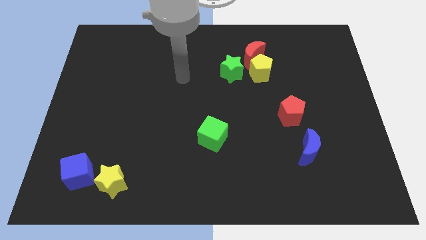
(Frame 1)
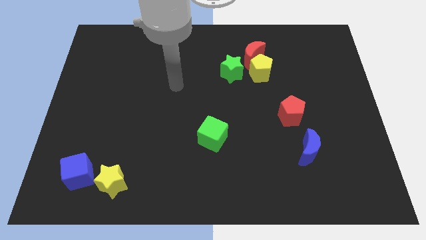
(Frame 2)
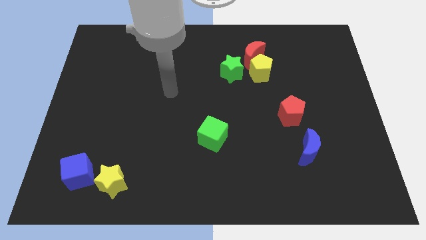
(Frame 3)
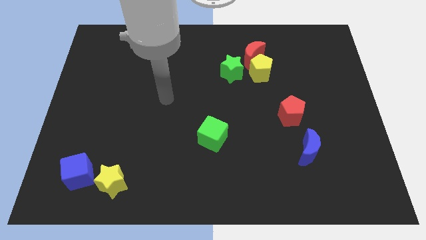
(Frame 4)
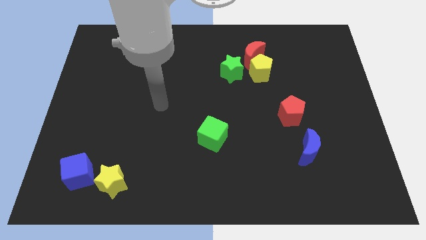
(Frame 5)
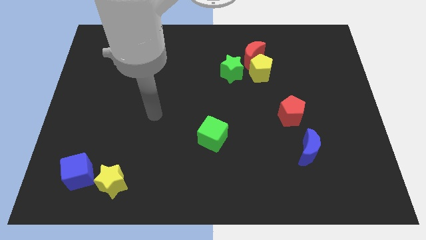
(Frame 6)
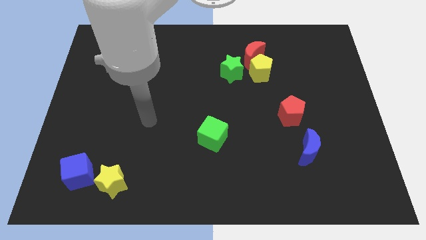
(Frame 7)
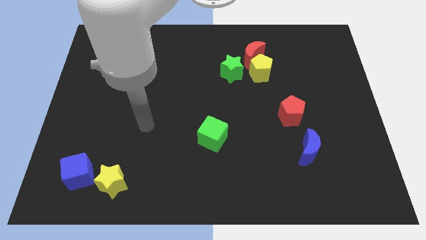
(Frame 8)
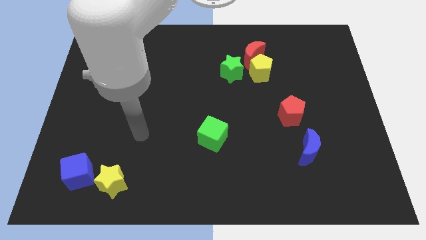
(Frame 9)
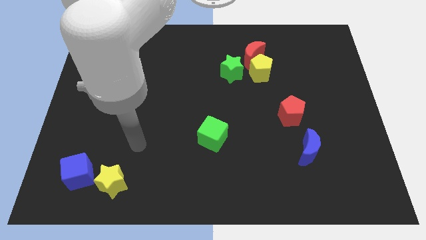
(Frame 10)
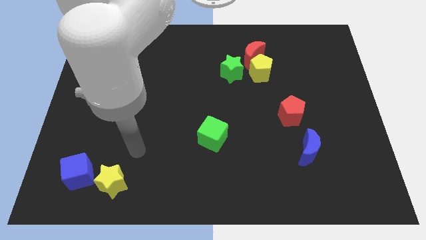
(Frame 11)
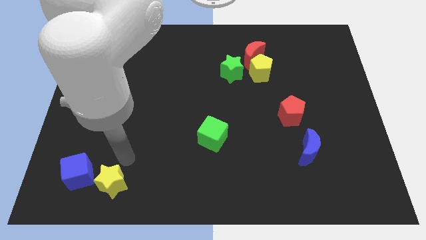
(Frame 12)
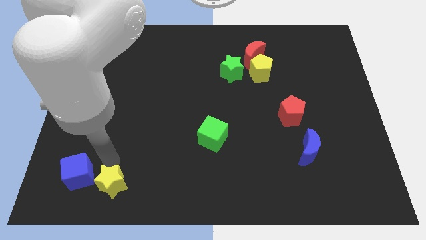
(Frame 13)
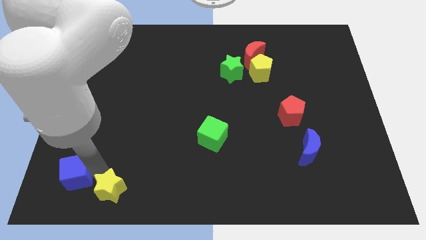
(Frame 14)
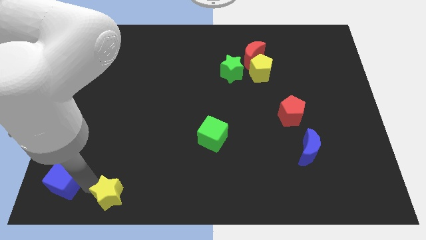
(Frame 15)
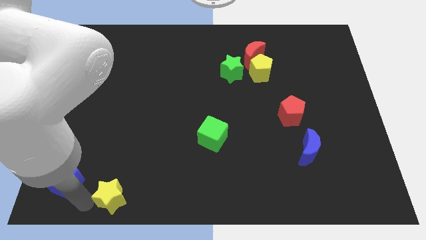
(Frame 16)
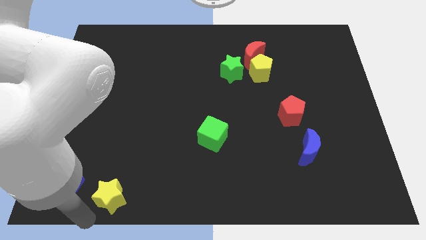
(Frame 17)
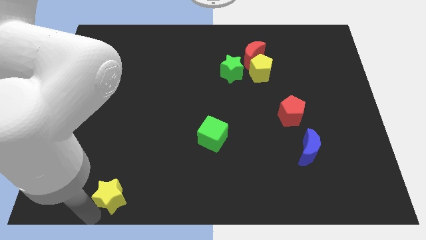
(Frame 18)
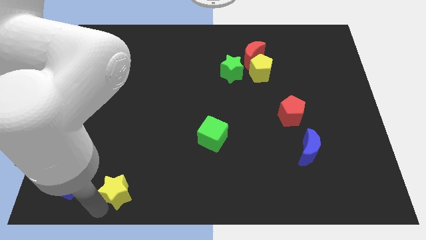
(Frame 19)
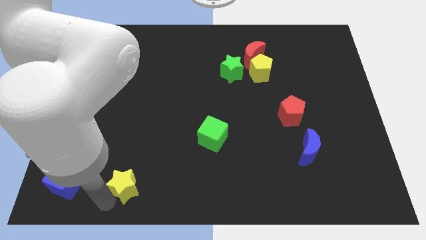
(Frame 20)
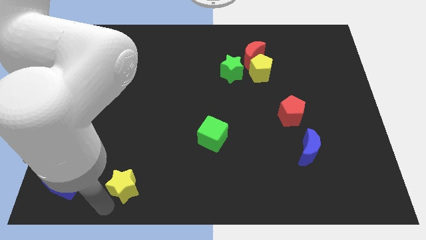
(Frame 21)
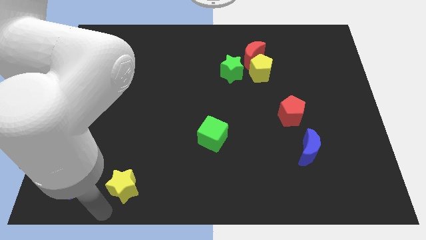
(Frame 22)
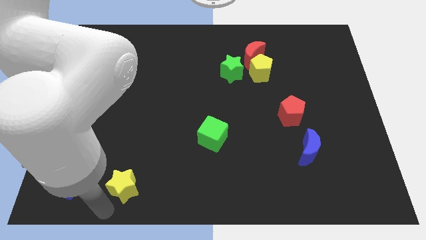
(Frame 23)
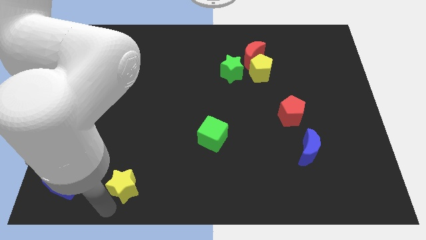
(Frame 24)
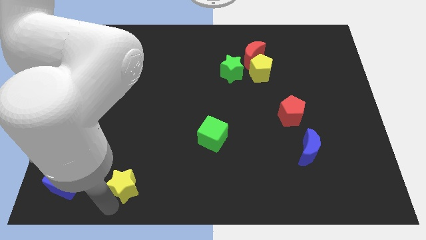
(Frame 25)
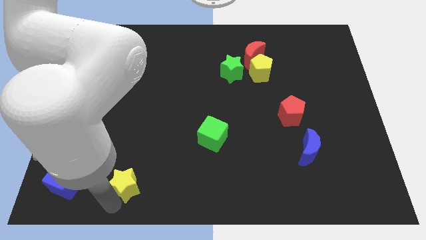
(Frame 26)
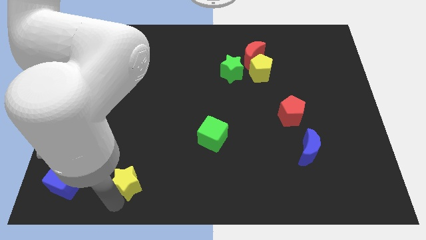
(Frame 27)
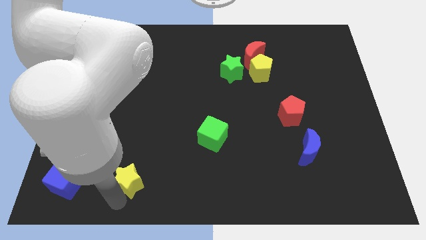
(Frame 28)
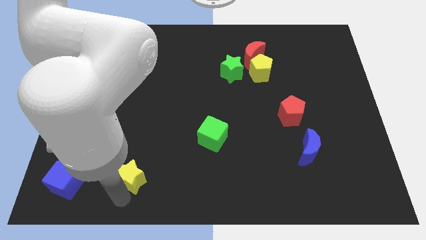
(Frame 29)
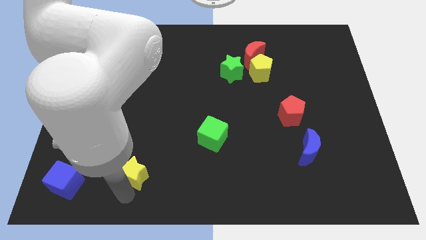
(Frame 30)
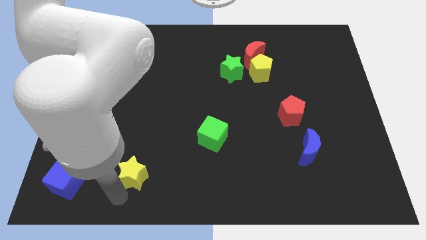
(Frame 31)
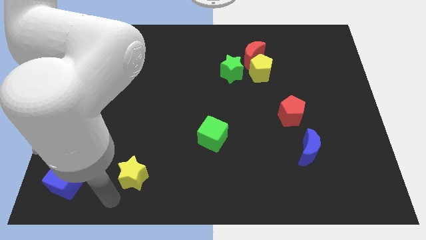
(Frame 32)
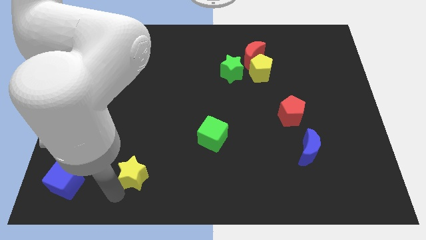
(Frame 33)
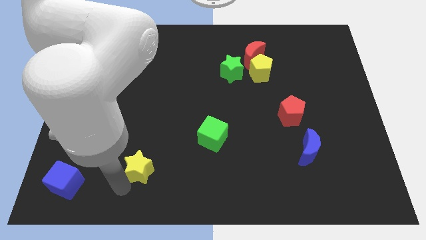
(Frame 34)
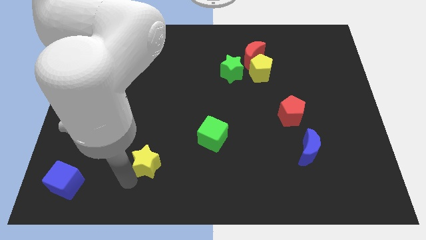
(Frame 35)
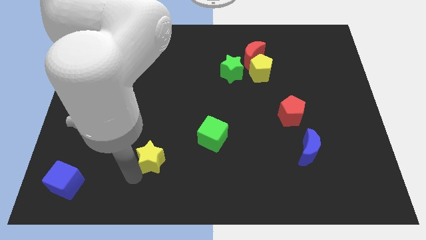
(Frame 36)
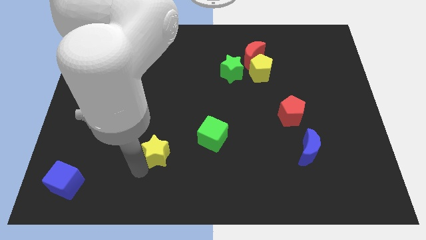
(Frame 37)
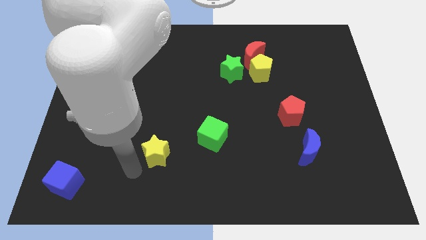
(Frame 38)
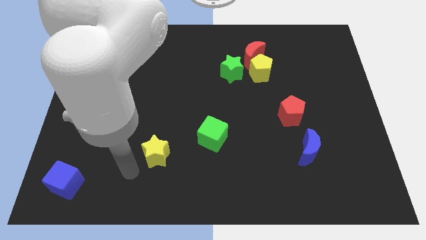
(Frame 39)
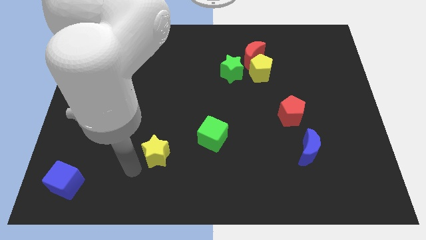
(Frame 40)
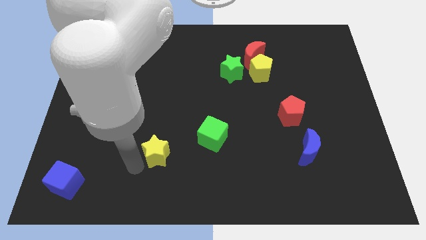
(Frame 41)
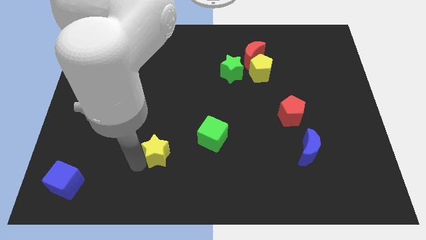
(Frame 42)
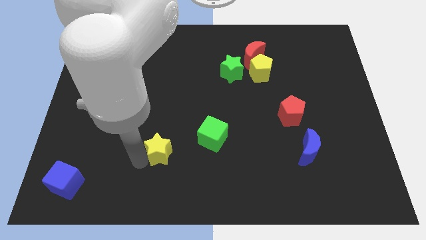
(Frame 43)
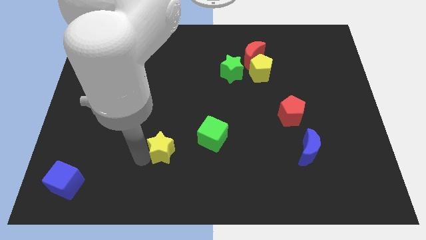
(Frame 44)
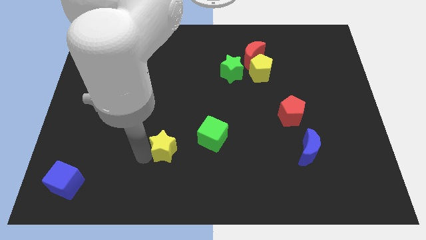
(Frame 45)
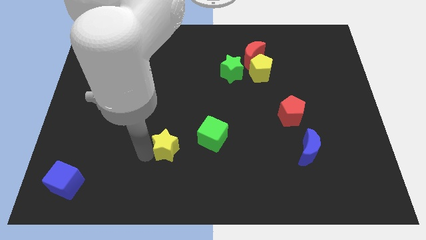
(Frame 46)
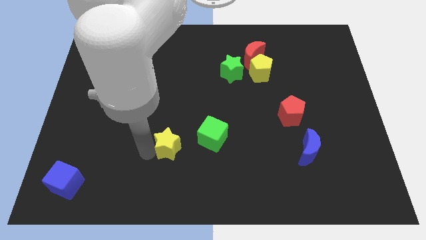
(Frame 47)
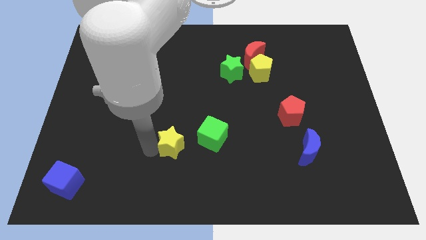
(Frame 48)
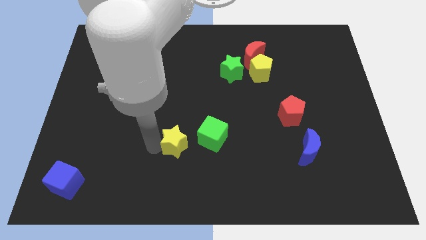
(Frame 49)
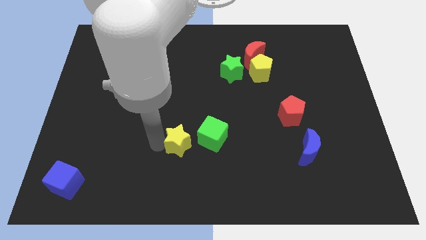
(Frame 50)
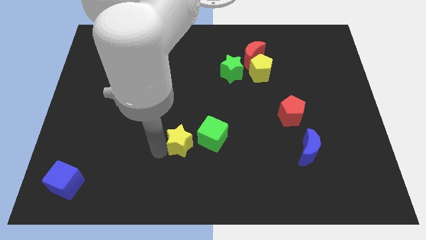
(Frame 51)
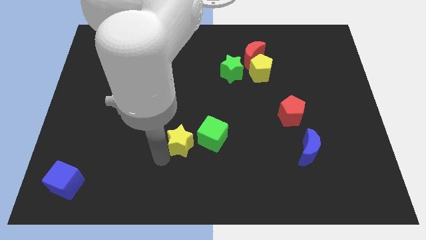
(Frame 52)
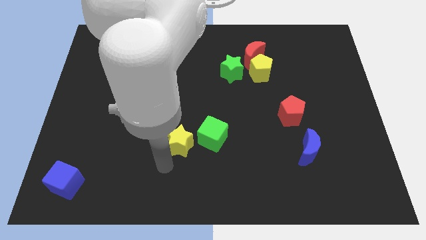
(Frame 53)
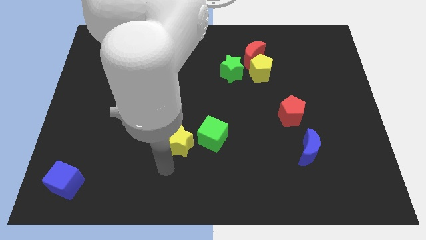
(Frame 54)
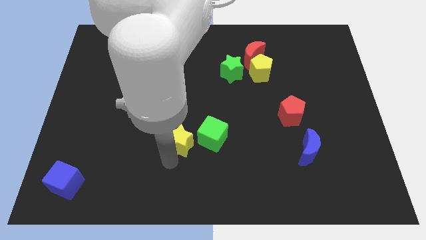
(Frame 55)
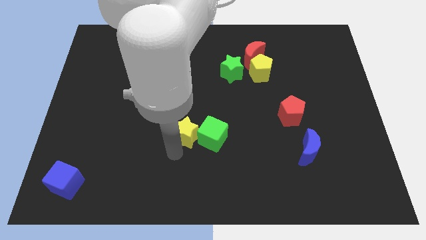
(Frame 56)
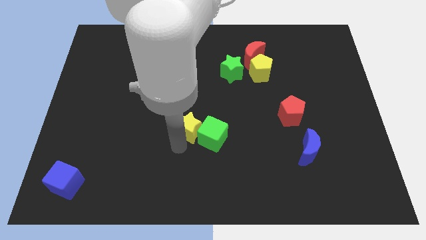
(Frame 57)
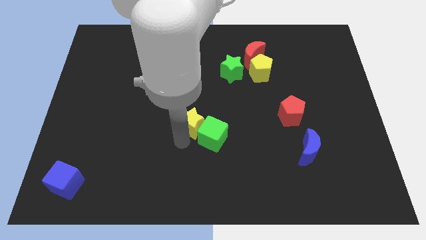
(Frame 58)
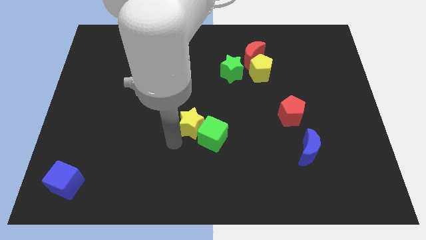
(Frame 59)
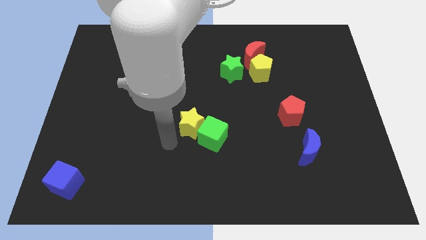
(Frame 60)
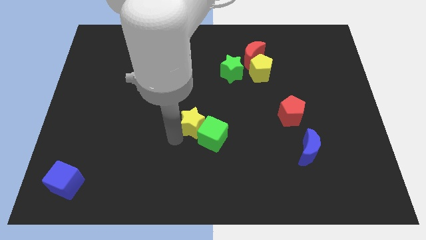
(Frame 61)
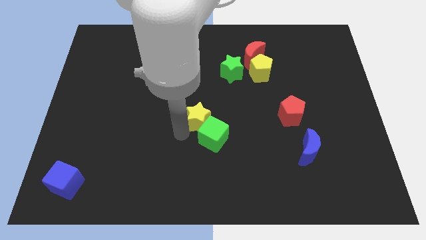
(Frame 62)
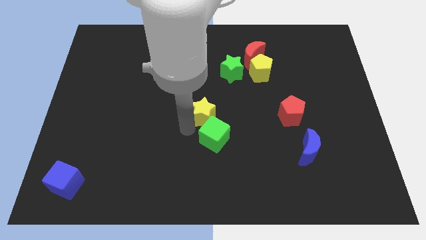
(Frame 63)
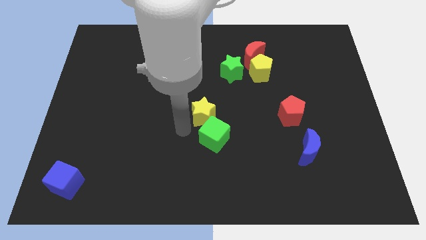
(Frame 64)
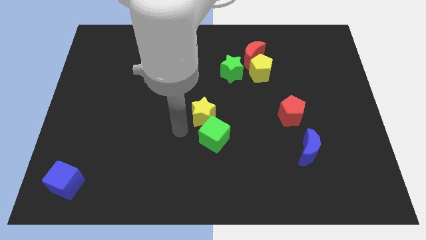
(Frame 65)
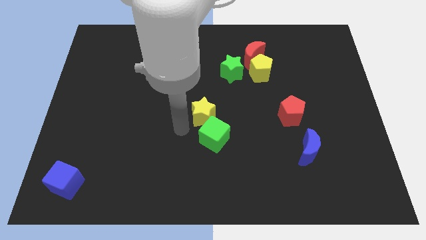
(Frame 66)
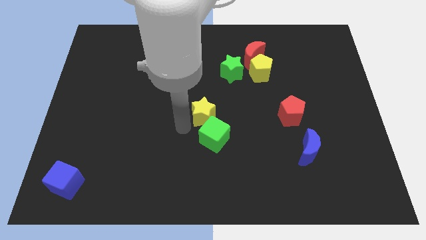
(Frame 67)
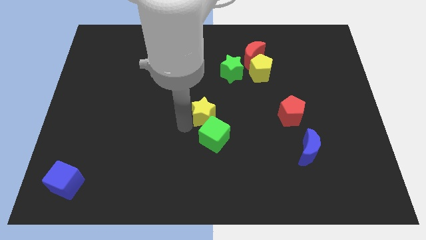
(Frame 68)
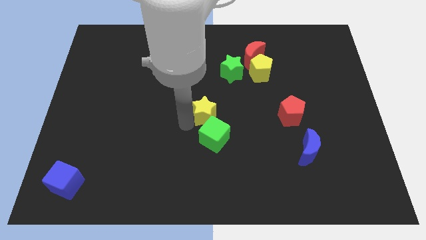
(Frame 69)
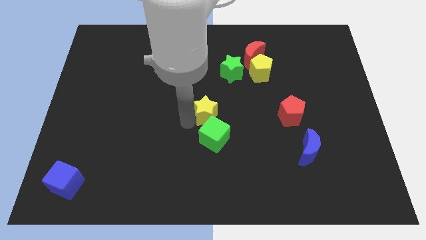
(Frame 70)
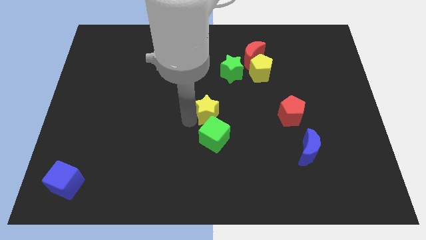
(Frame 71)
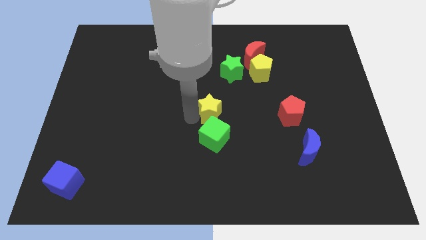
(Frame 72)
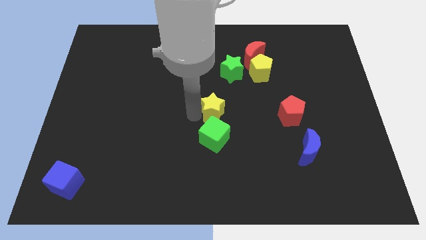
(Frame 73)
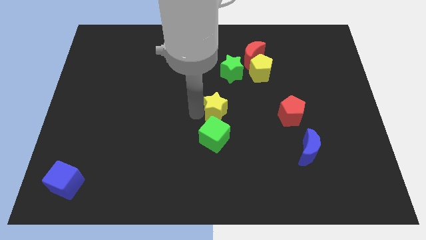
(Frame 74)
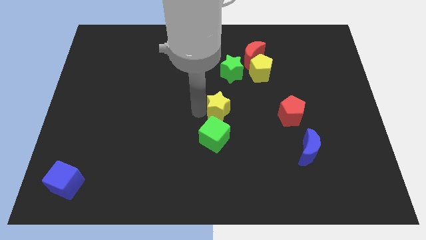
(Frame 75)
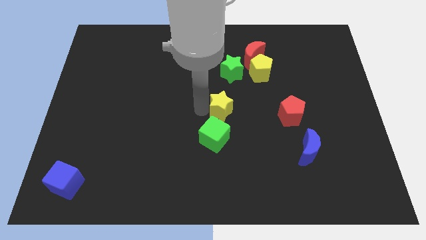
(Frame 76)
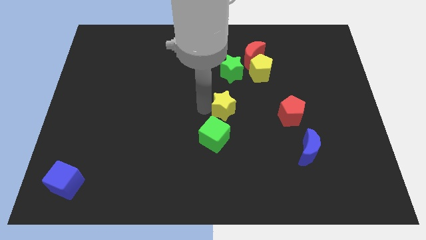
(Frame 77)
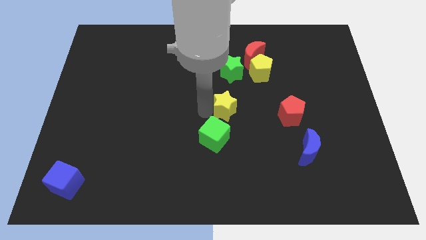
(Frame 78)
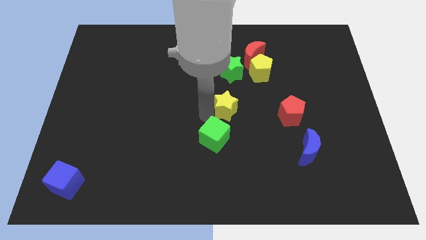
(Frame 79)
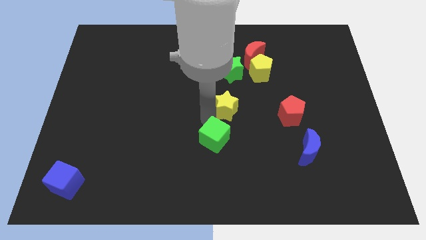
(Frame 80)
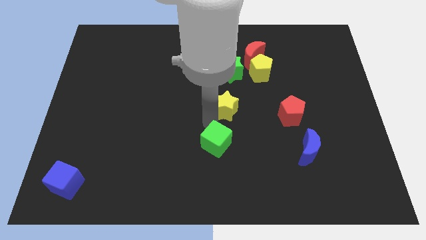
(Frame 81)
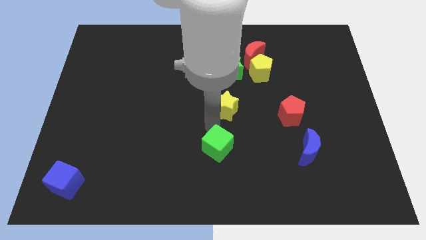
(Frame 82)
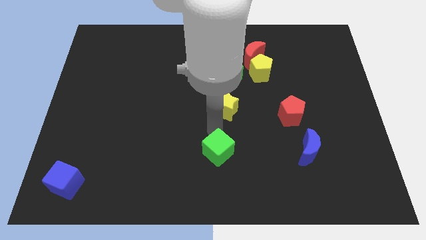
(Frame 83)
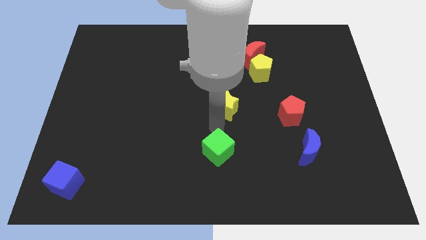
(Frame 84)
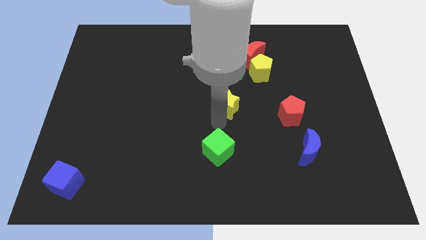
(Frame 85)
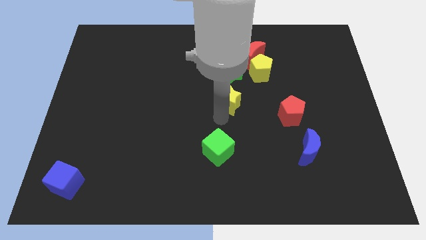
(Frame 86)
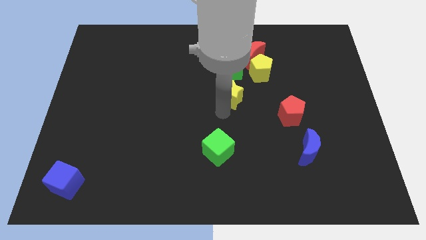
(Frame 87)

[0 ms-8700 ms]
move the yellow star to the bottom left of the yellow pentagon
